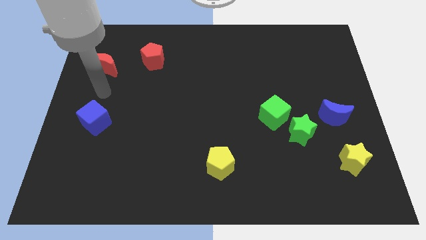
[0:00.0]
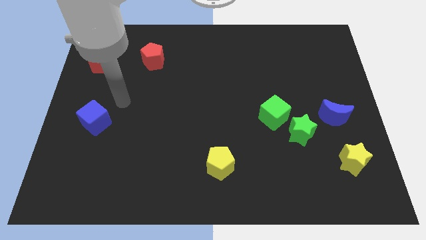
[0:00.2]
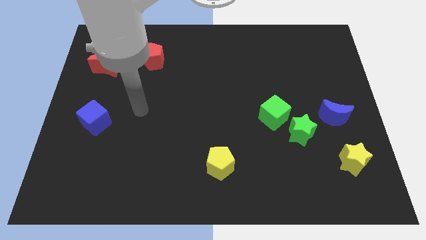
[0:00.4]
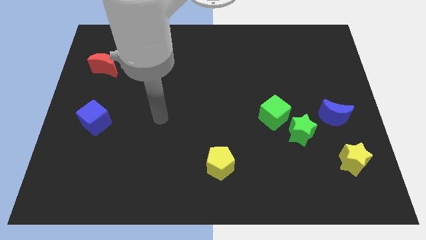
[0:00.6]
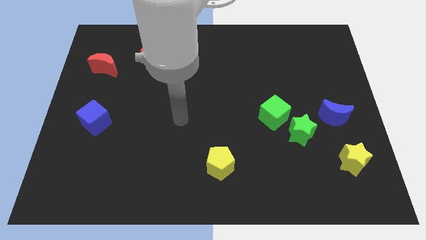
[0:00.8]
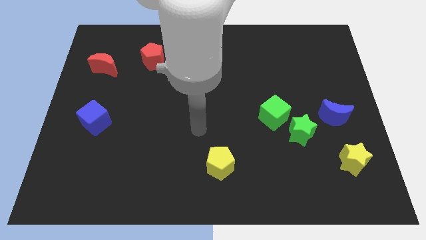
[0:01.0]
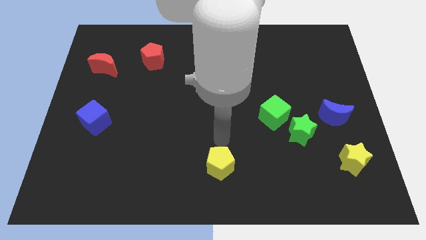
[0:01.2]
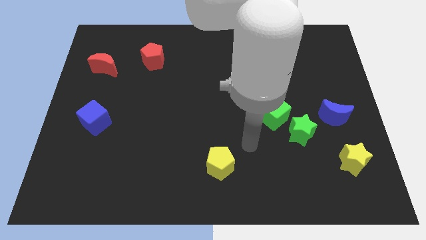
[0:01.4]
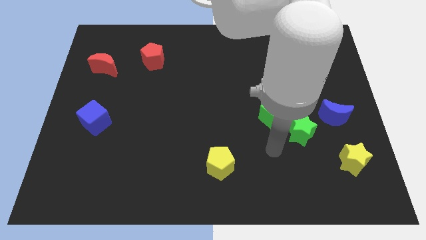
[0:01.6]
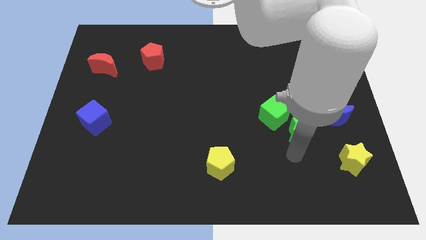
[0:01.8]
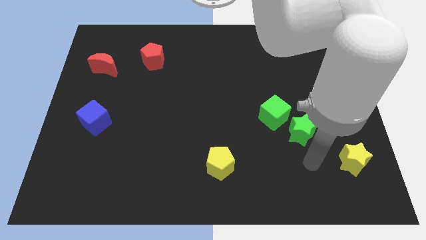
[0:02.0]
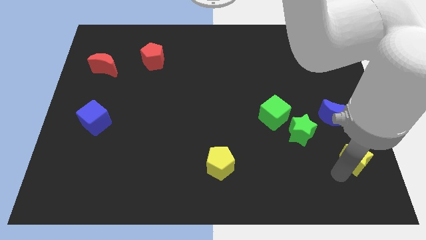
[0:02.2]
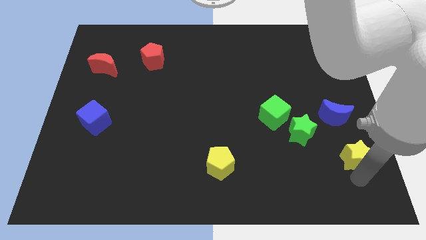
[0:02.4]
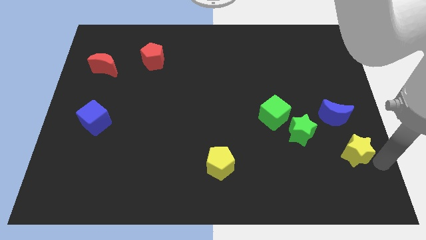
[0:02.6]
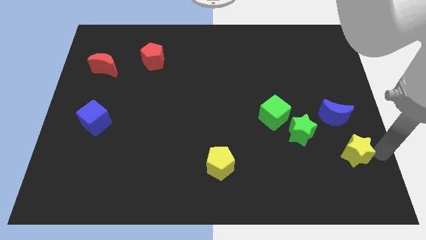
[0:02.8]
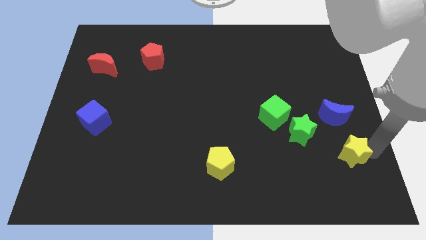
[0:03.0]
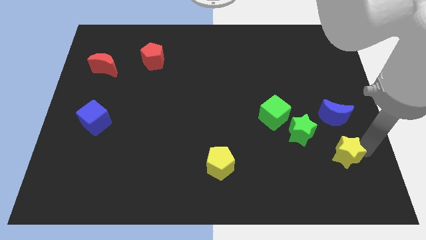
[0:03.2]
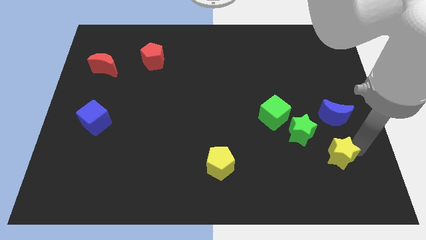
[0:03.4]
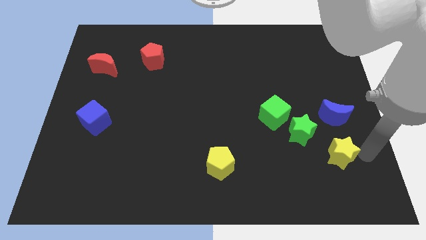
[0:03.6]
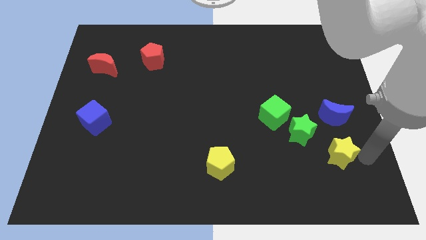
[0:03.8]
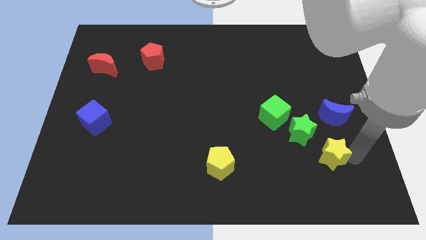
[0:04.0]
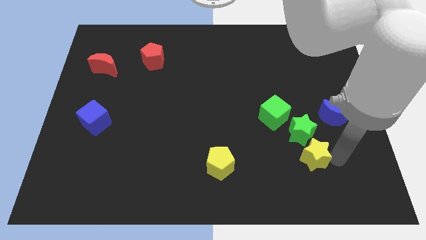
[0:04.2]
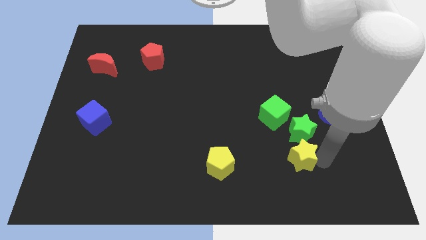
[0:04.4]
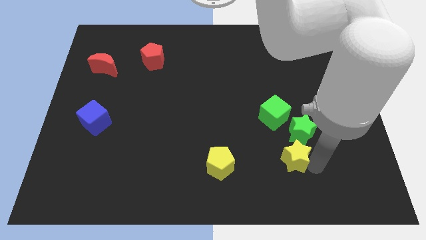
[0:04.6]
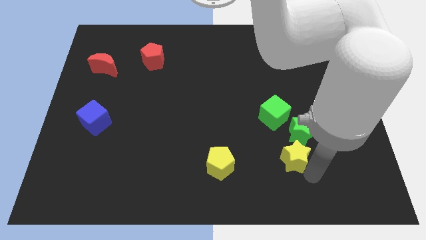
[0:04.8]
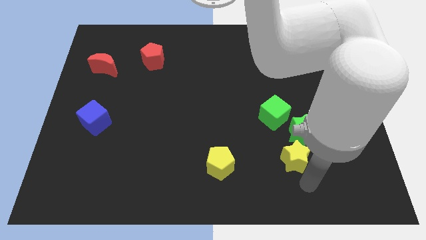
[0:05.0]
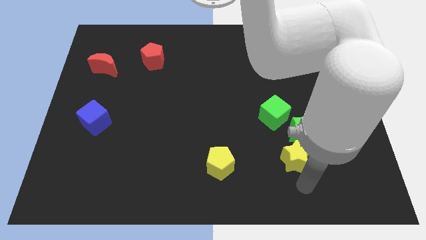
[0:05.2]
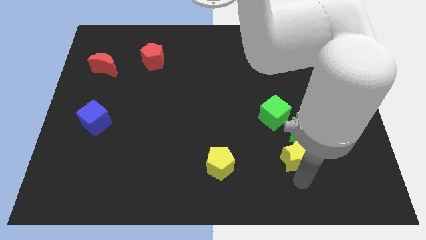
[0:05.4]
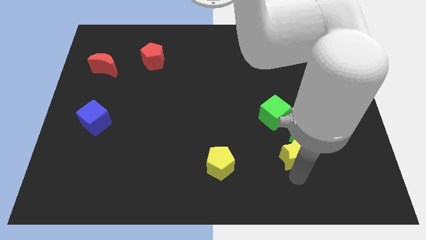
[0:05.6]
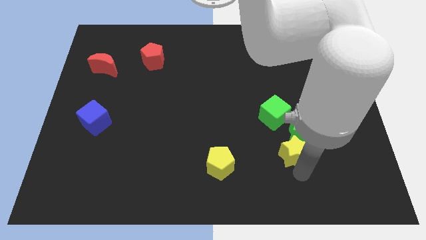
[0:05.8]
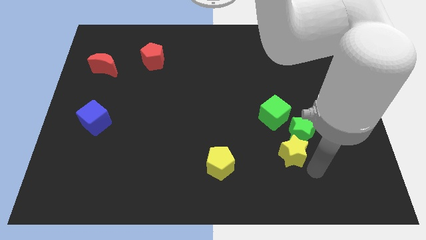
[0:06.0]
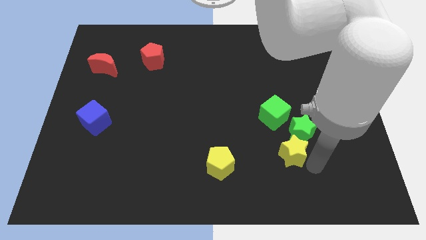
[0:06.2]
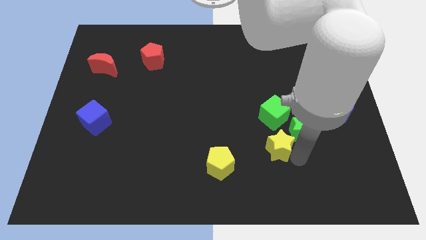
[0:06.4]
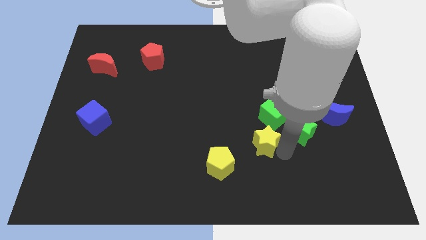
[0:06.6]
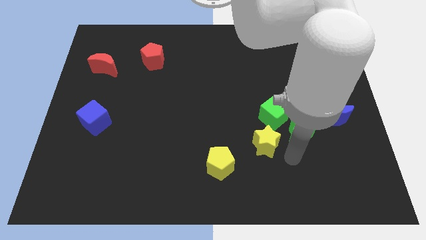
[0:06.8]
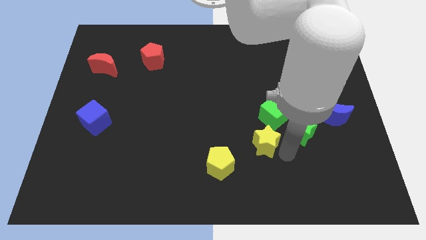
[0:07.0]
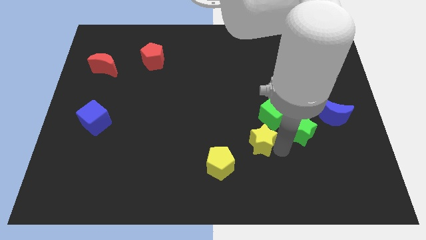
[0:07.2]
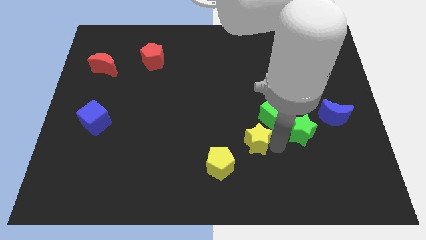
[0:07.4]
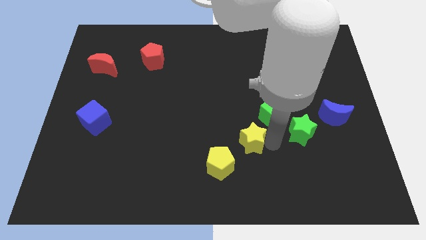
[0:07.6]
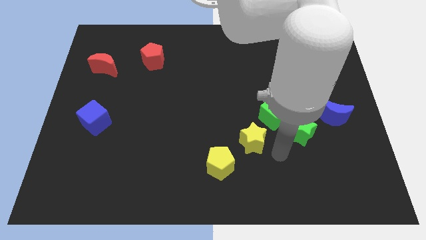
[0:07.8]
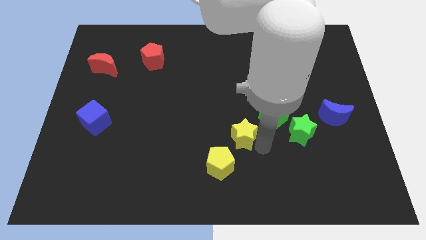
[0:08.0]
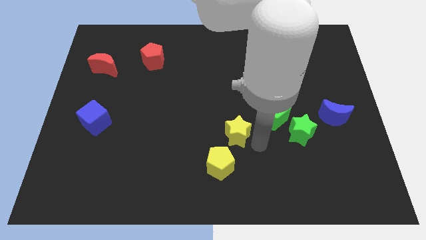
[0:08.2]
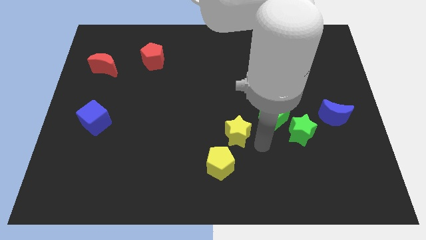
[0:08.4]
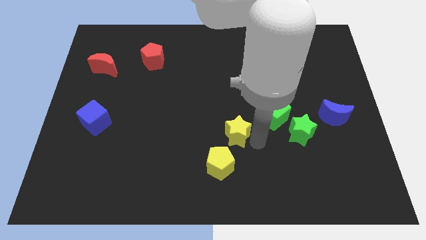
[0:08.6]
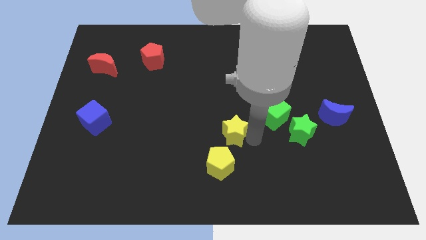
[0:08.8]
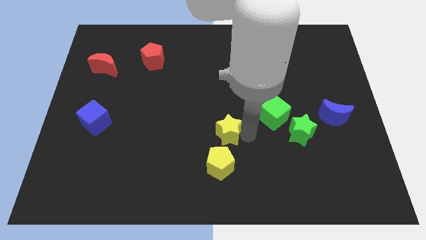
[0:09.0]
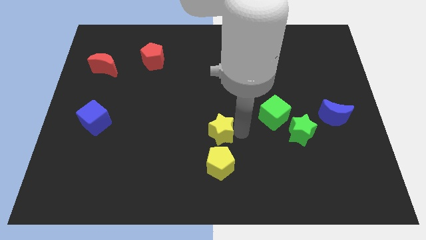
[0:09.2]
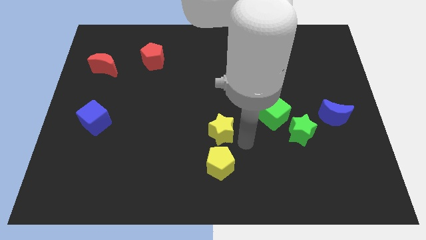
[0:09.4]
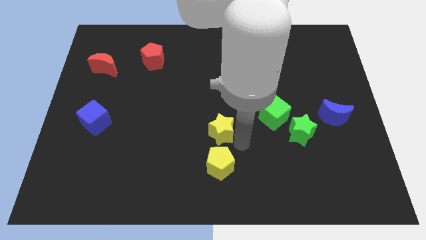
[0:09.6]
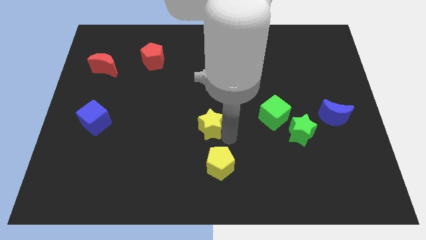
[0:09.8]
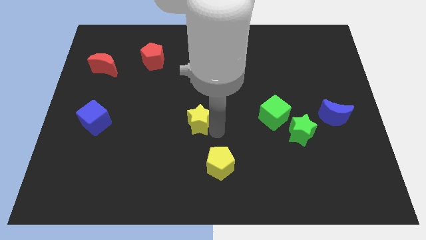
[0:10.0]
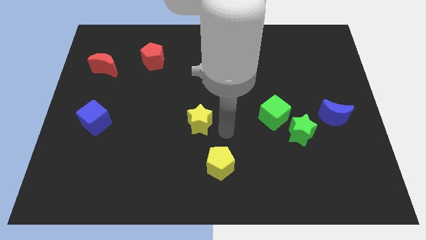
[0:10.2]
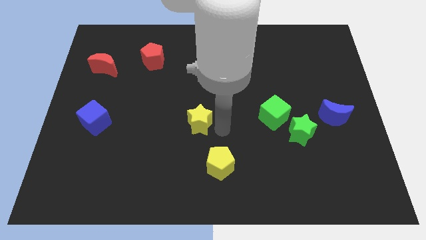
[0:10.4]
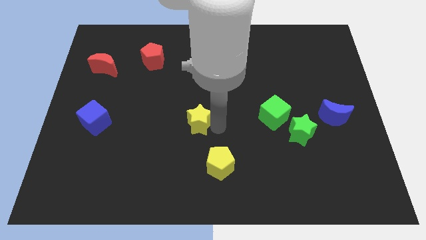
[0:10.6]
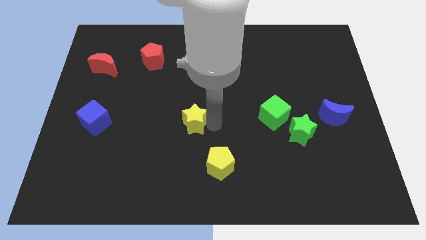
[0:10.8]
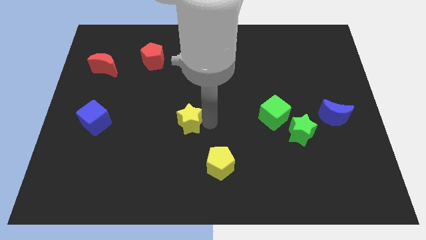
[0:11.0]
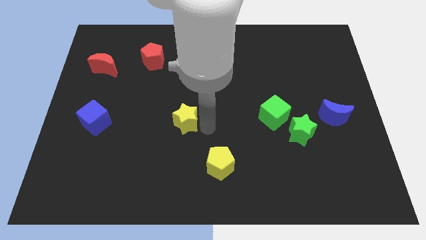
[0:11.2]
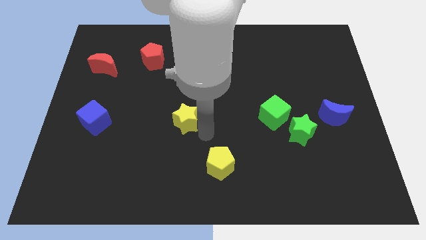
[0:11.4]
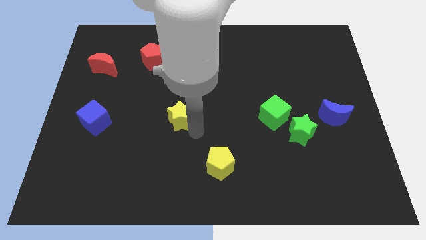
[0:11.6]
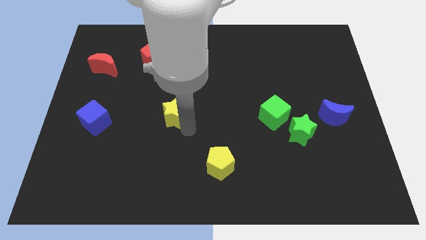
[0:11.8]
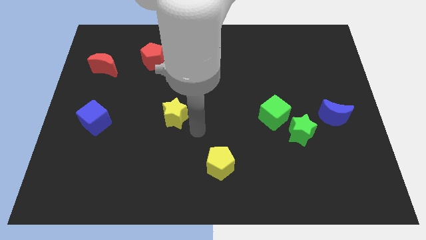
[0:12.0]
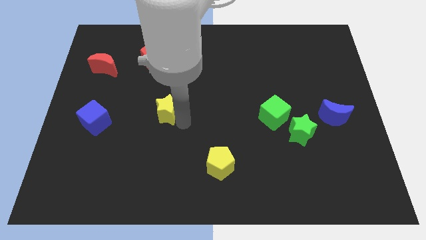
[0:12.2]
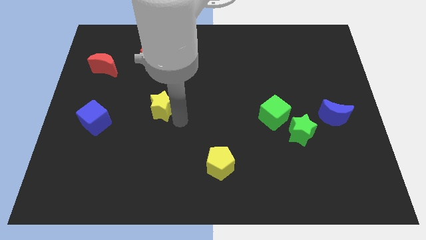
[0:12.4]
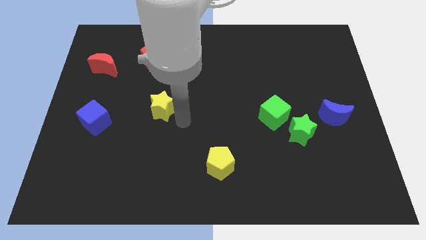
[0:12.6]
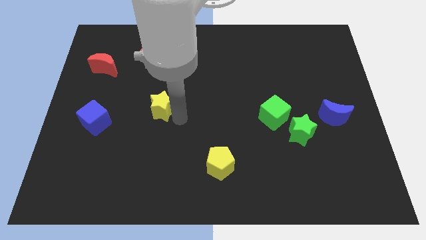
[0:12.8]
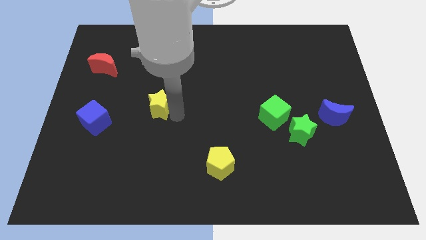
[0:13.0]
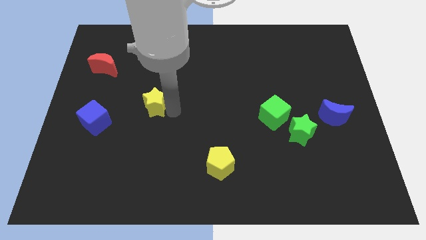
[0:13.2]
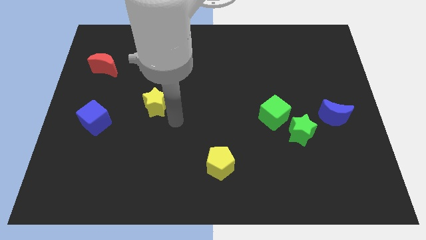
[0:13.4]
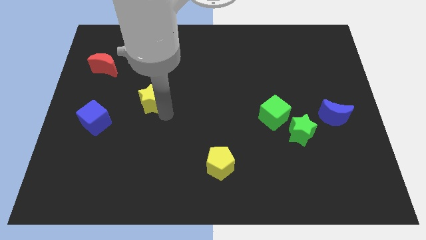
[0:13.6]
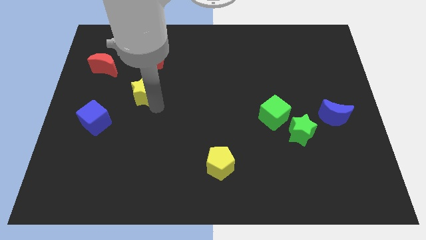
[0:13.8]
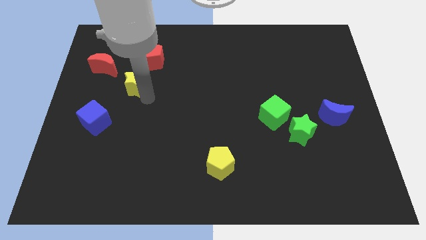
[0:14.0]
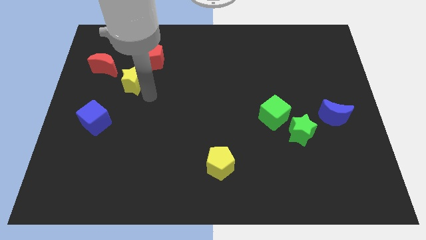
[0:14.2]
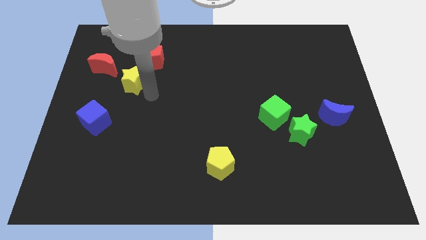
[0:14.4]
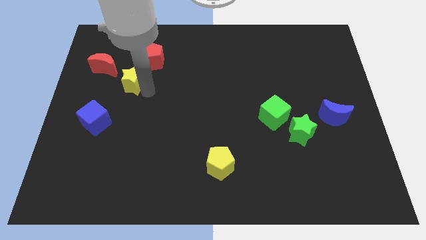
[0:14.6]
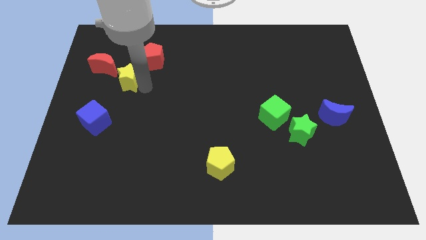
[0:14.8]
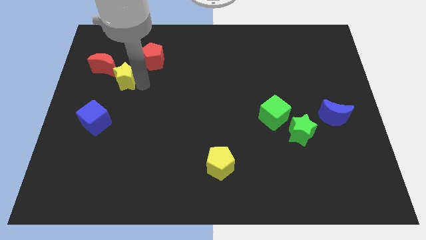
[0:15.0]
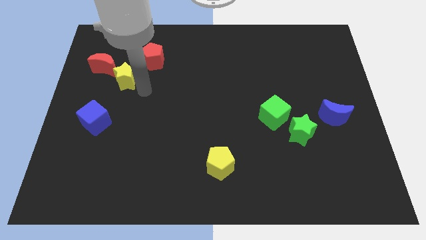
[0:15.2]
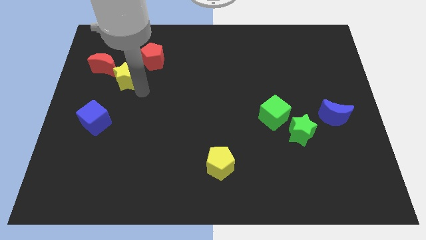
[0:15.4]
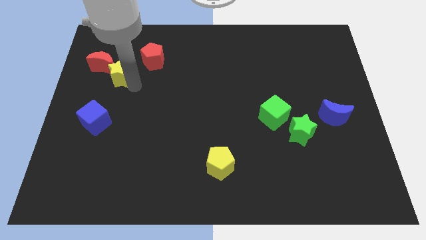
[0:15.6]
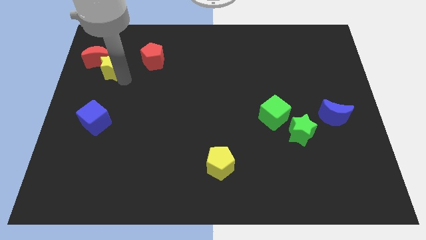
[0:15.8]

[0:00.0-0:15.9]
slide the yellow star to the red moon

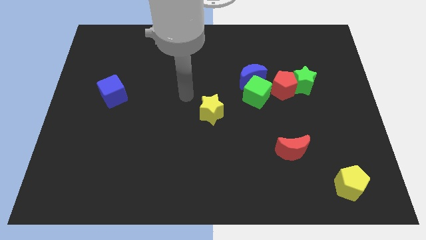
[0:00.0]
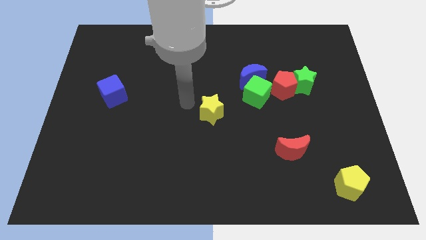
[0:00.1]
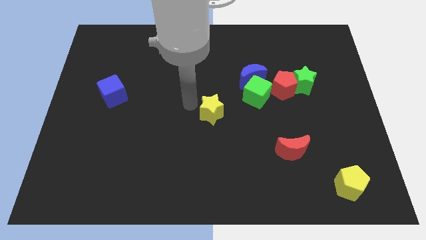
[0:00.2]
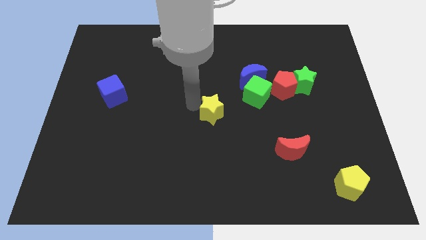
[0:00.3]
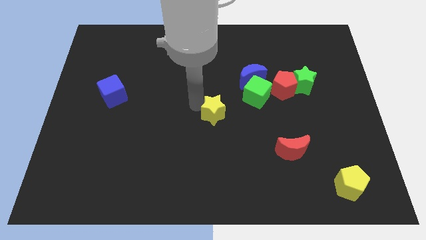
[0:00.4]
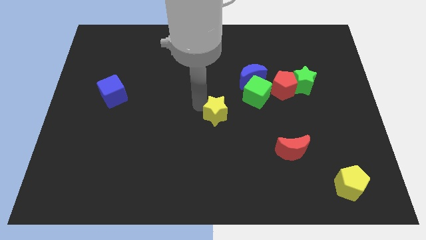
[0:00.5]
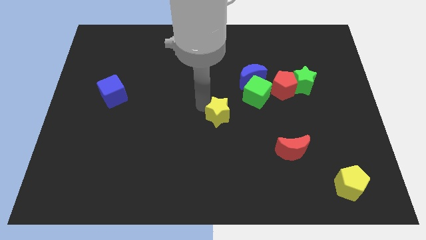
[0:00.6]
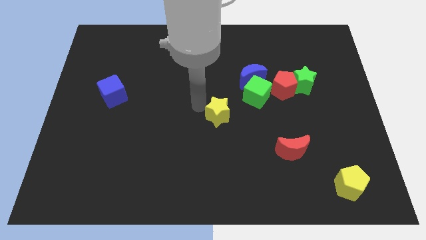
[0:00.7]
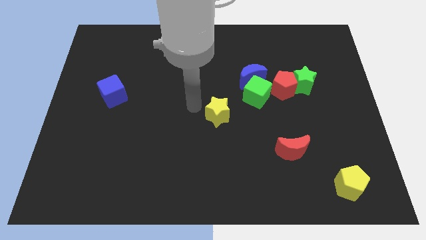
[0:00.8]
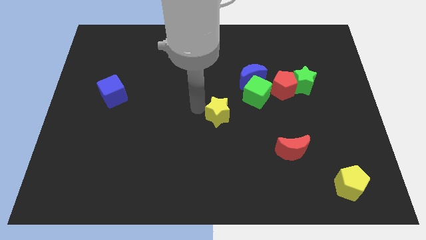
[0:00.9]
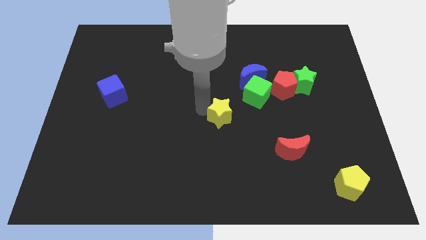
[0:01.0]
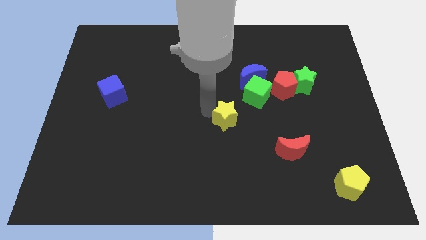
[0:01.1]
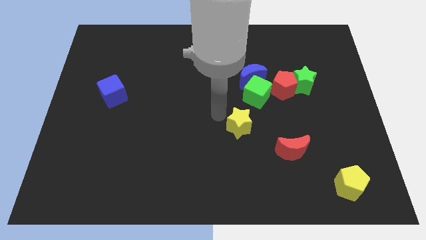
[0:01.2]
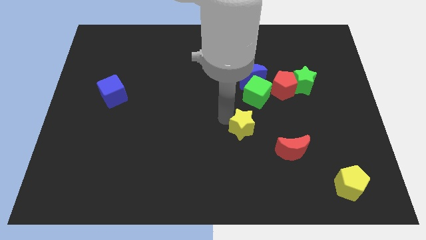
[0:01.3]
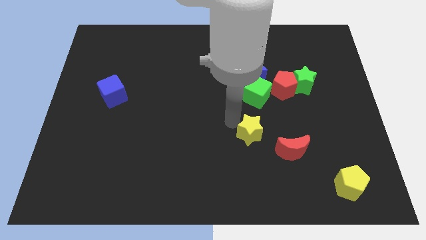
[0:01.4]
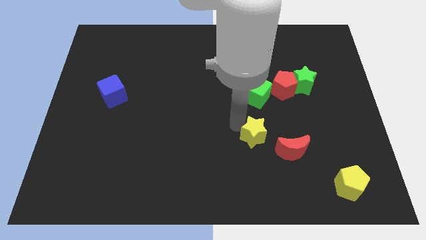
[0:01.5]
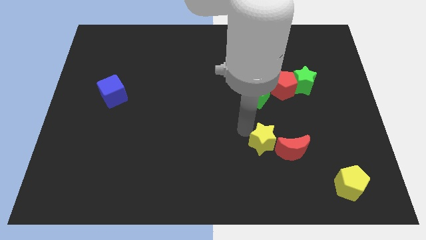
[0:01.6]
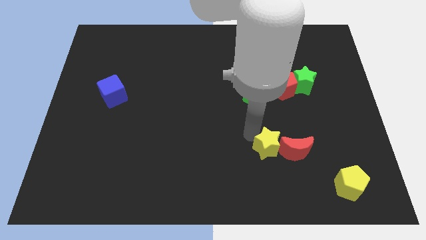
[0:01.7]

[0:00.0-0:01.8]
slide the yellow star next to the red moon
